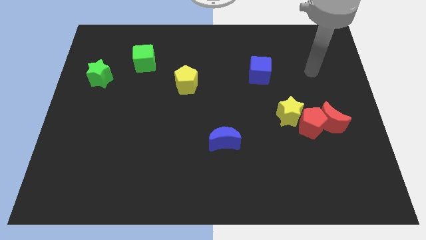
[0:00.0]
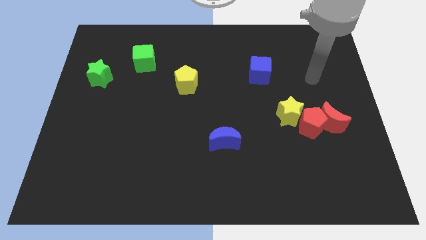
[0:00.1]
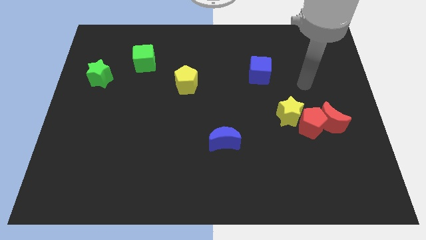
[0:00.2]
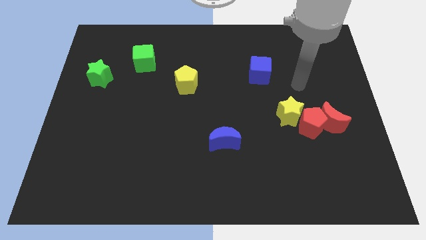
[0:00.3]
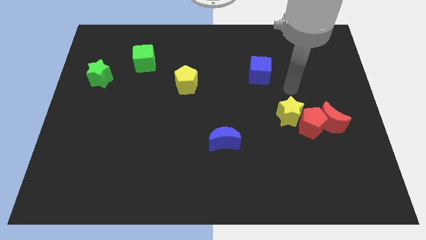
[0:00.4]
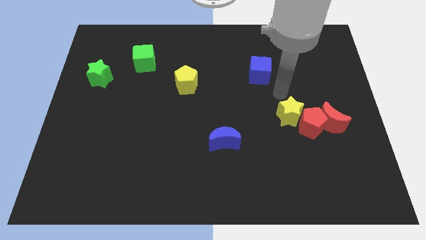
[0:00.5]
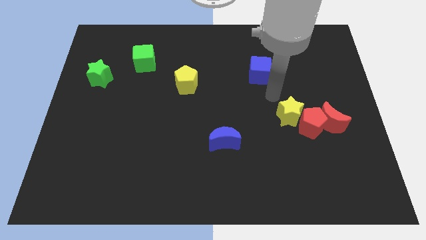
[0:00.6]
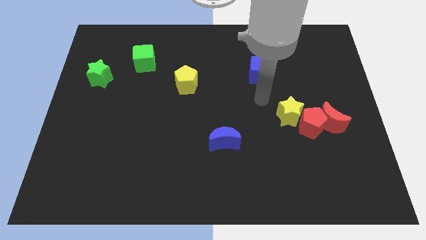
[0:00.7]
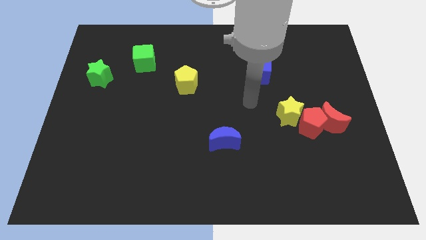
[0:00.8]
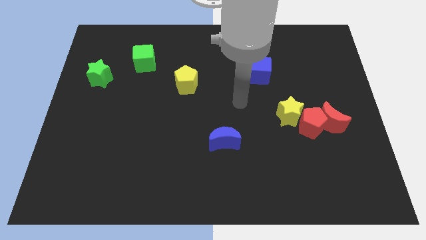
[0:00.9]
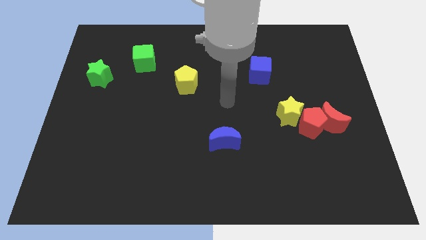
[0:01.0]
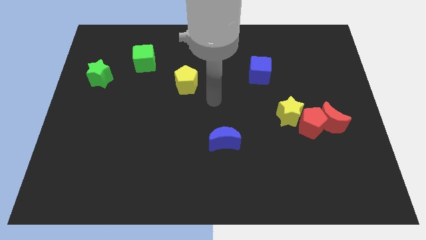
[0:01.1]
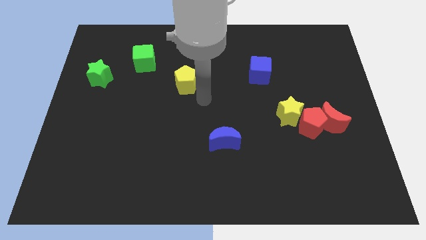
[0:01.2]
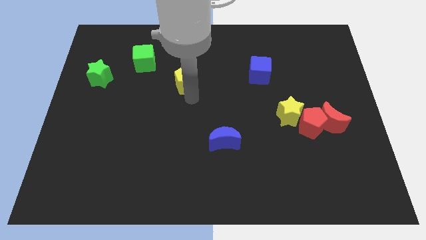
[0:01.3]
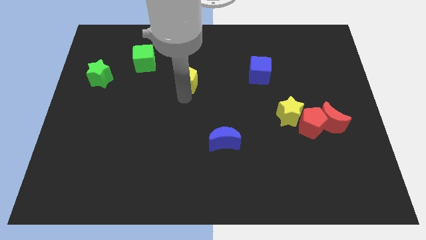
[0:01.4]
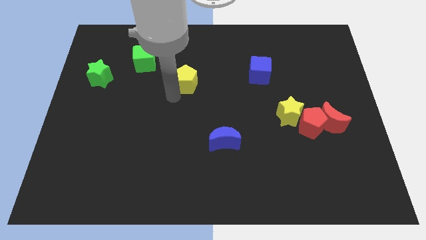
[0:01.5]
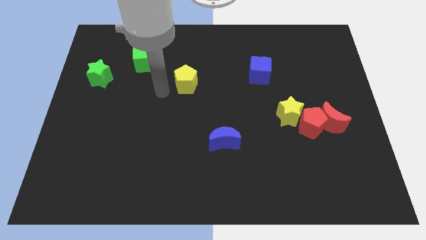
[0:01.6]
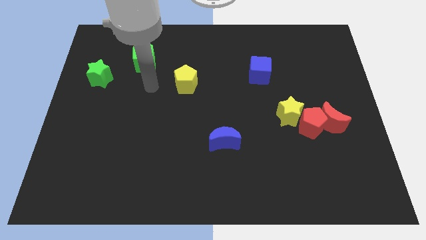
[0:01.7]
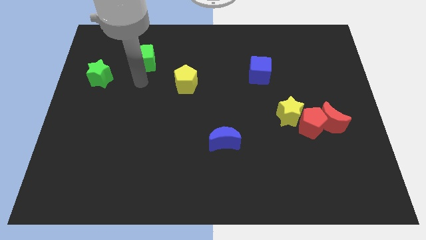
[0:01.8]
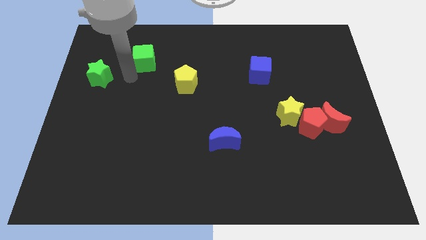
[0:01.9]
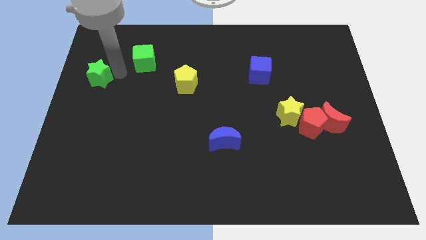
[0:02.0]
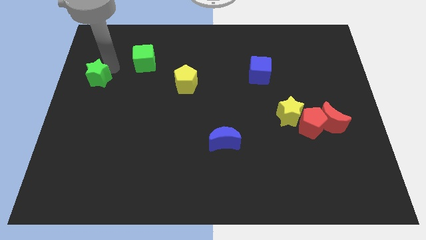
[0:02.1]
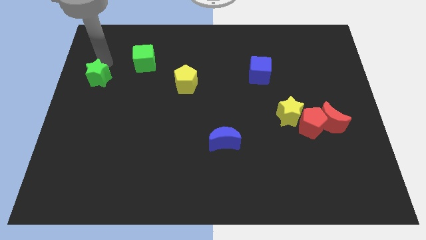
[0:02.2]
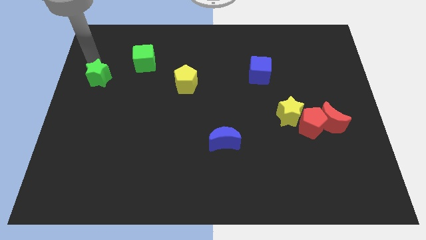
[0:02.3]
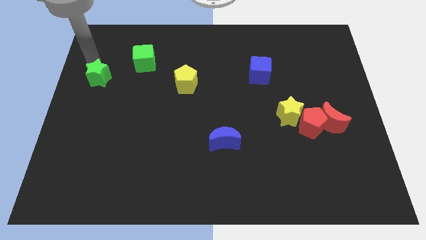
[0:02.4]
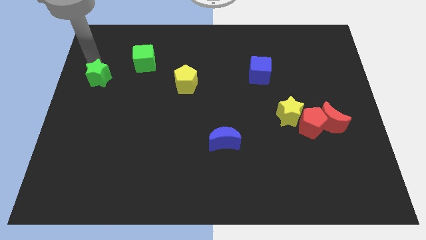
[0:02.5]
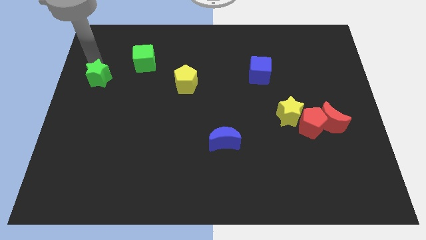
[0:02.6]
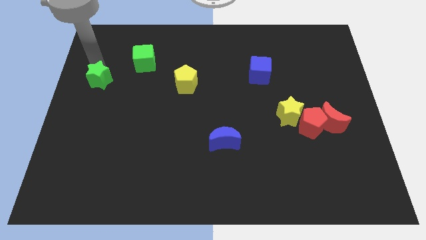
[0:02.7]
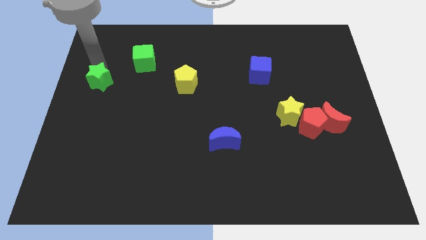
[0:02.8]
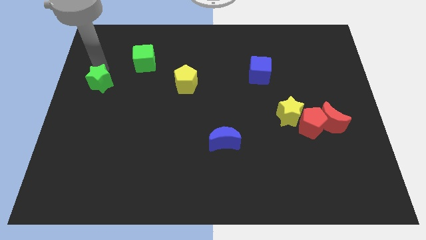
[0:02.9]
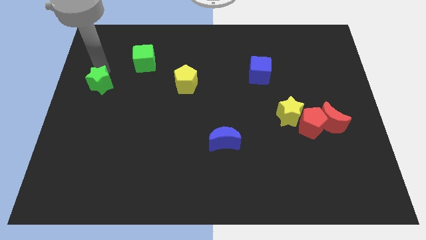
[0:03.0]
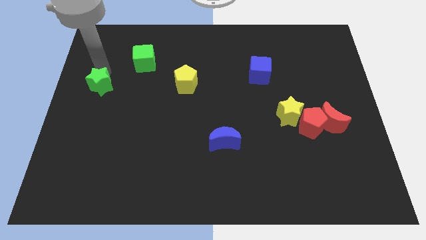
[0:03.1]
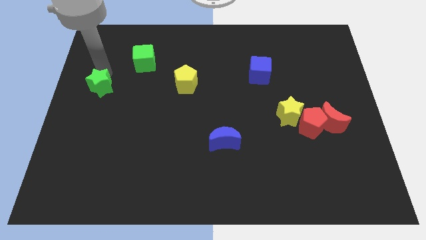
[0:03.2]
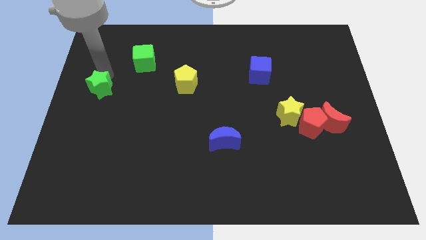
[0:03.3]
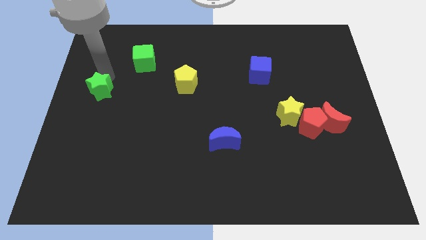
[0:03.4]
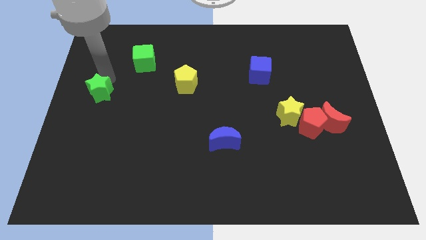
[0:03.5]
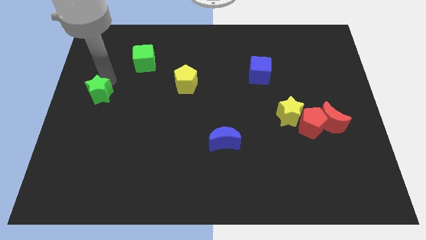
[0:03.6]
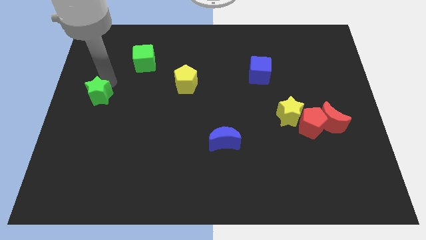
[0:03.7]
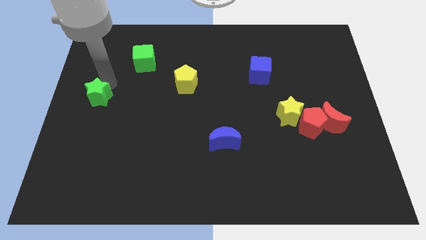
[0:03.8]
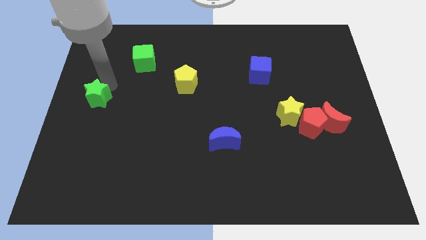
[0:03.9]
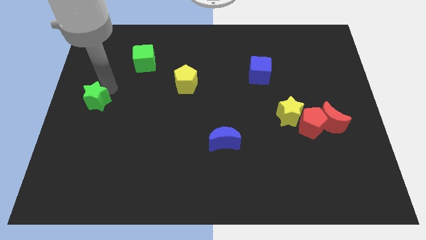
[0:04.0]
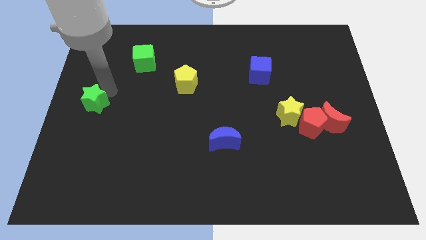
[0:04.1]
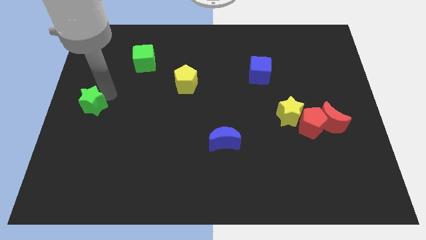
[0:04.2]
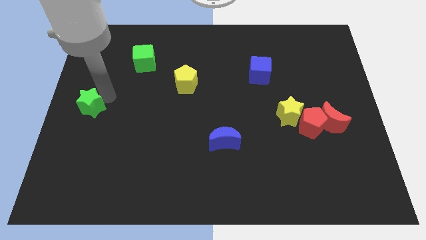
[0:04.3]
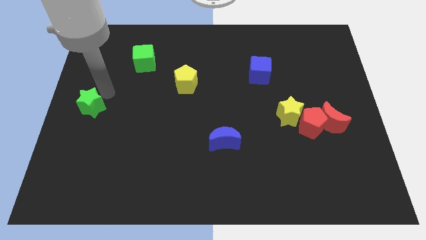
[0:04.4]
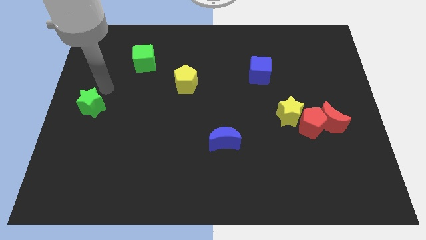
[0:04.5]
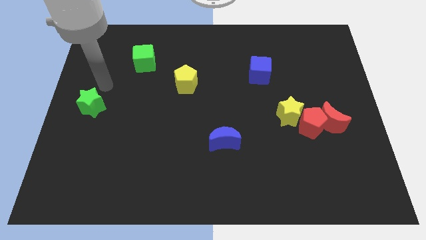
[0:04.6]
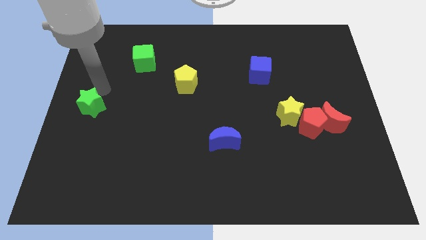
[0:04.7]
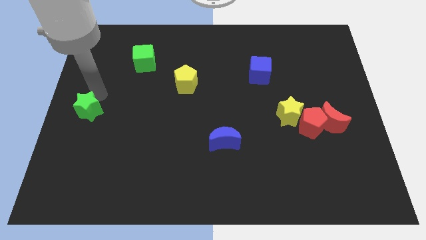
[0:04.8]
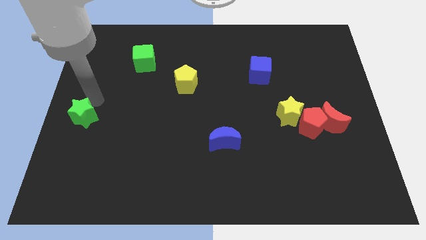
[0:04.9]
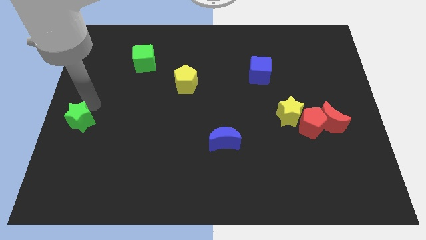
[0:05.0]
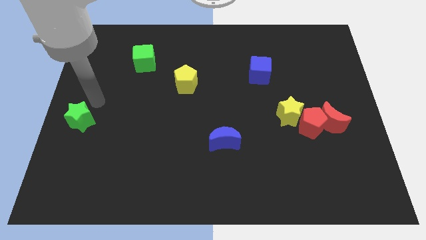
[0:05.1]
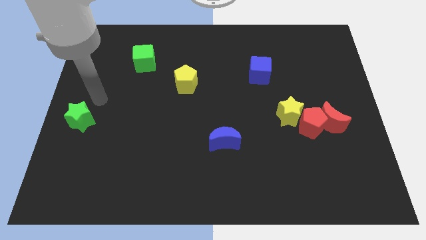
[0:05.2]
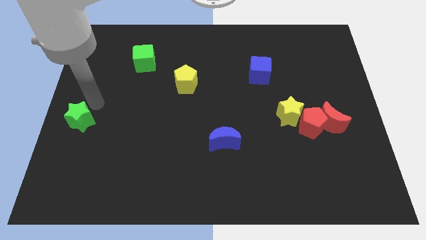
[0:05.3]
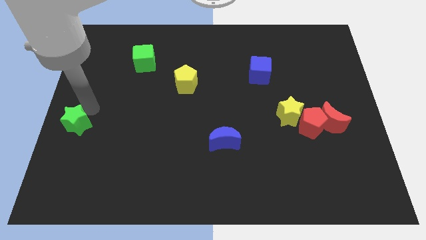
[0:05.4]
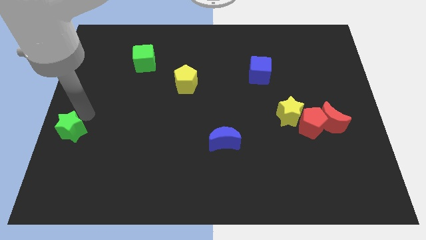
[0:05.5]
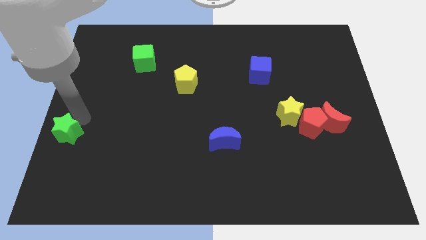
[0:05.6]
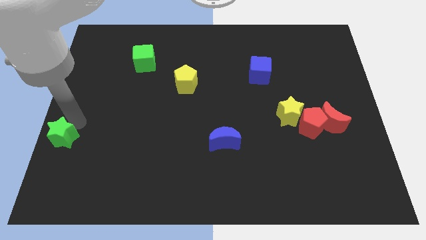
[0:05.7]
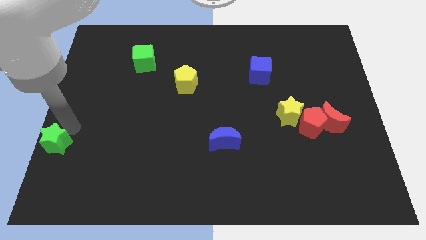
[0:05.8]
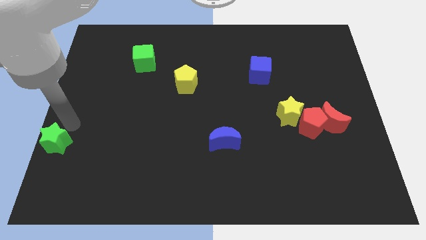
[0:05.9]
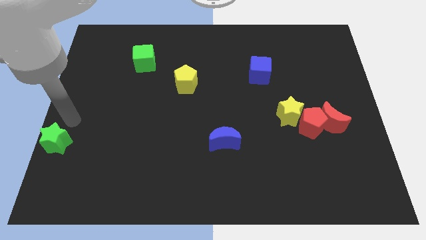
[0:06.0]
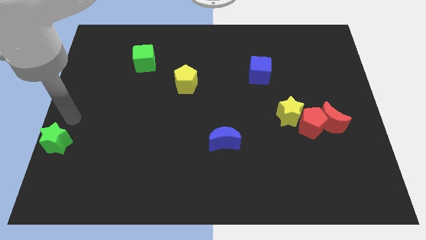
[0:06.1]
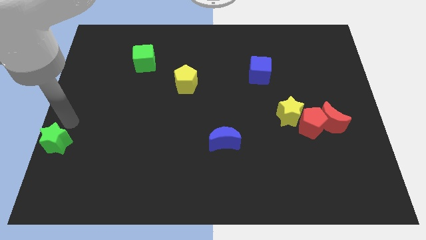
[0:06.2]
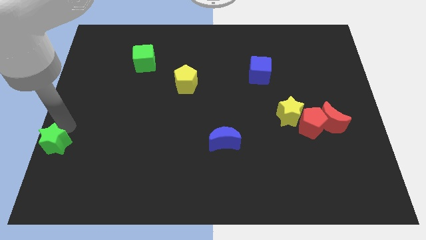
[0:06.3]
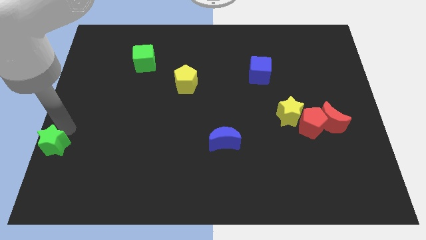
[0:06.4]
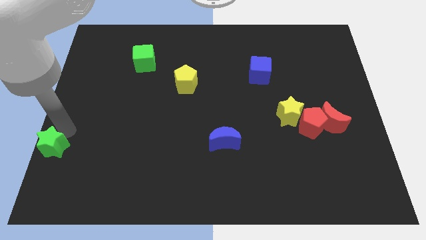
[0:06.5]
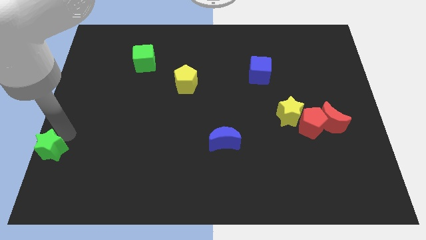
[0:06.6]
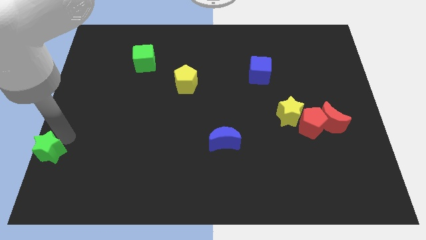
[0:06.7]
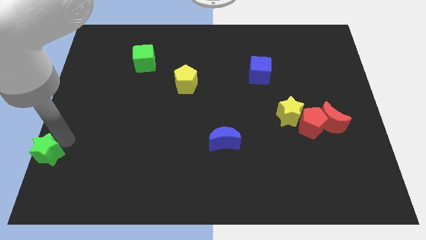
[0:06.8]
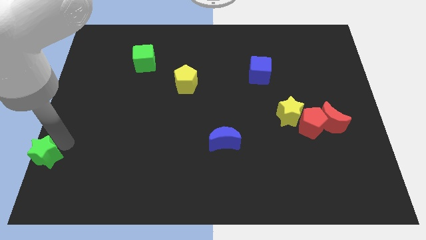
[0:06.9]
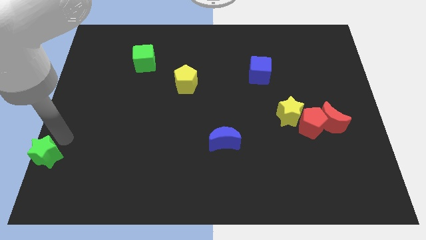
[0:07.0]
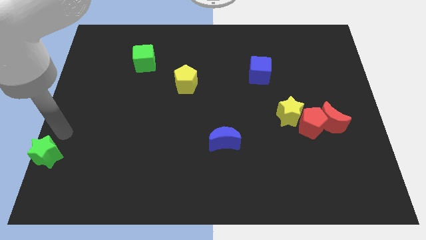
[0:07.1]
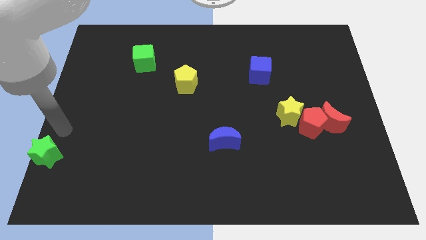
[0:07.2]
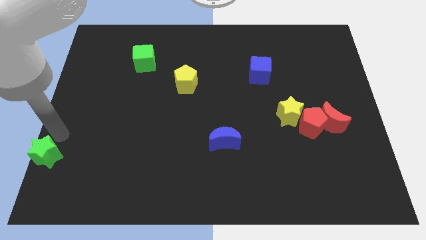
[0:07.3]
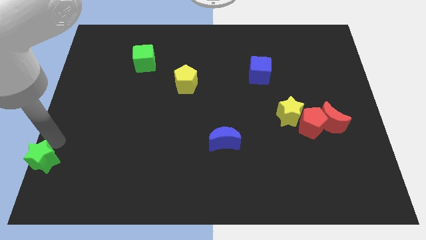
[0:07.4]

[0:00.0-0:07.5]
put the green star to the lower left corner
